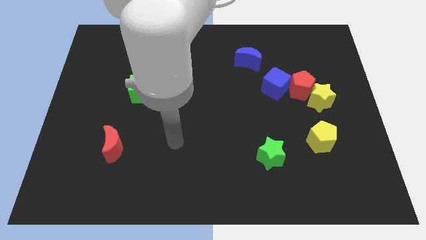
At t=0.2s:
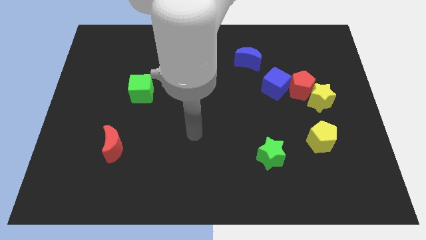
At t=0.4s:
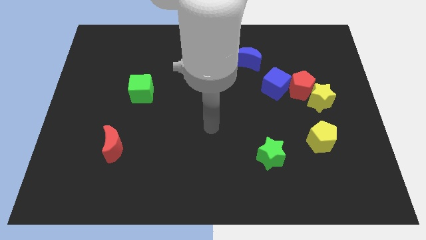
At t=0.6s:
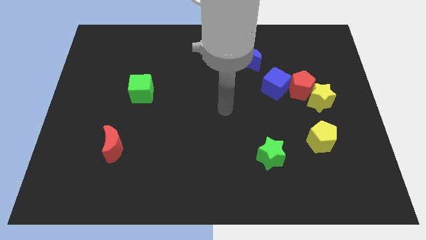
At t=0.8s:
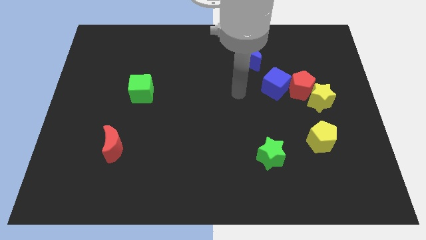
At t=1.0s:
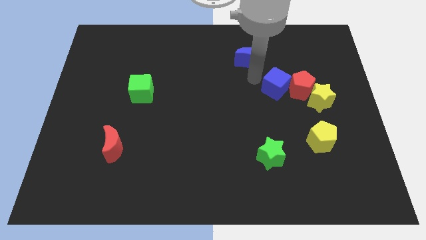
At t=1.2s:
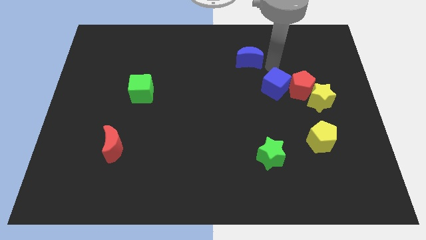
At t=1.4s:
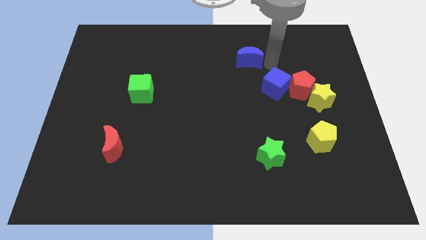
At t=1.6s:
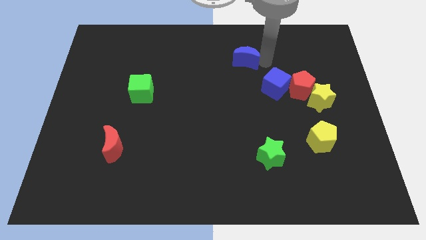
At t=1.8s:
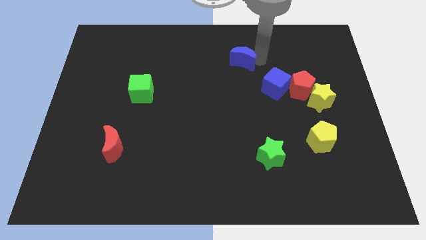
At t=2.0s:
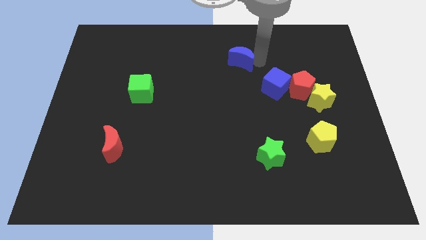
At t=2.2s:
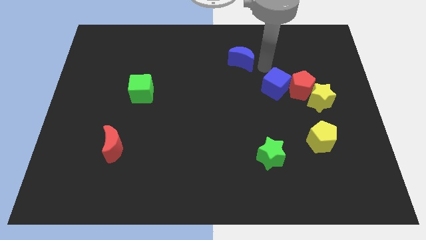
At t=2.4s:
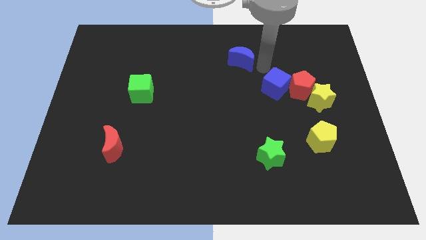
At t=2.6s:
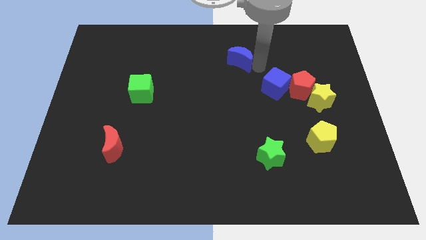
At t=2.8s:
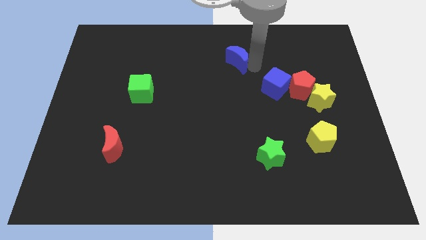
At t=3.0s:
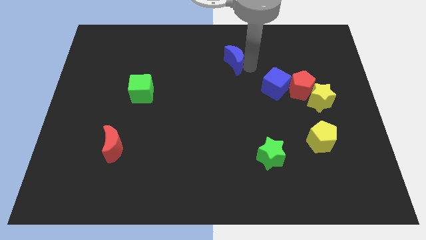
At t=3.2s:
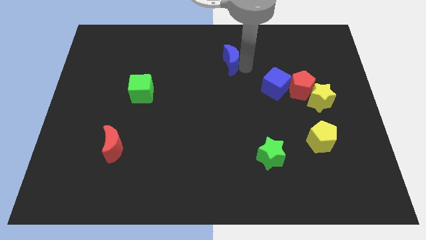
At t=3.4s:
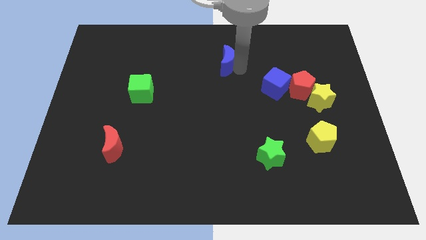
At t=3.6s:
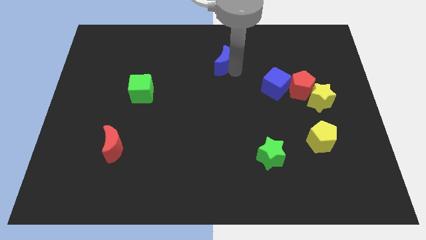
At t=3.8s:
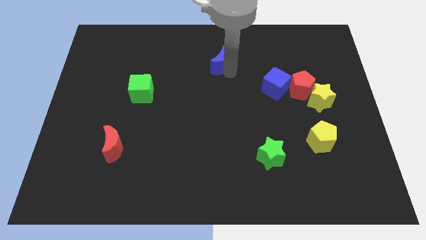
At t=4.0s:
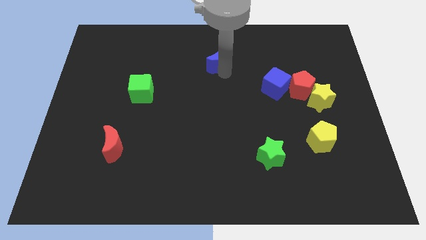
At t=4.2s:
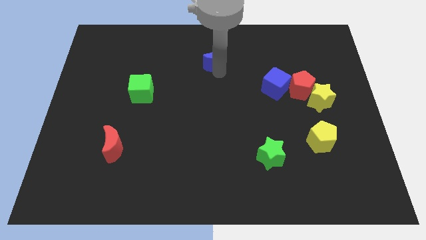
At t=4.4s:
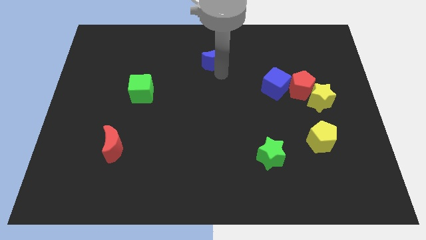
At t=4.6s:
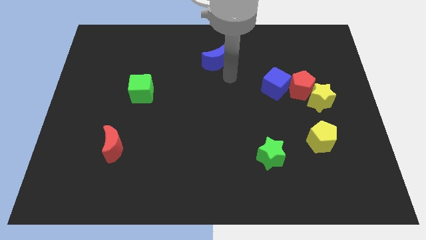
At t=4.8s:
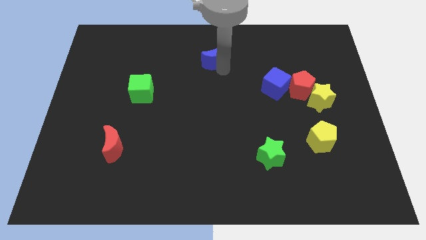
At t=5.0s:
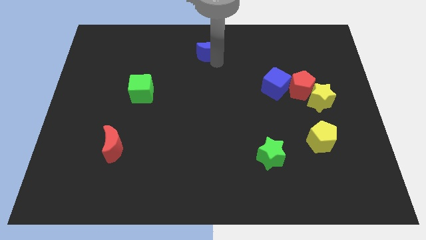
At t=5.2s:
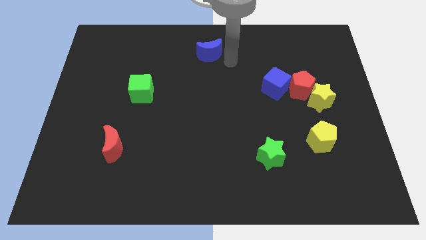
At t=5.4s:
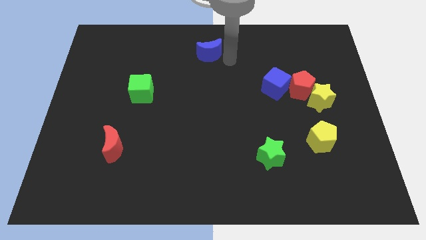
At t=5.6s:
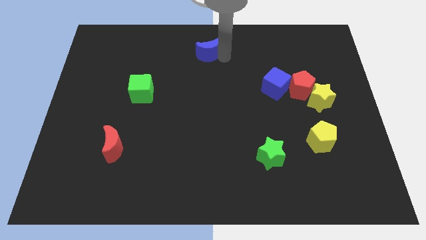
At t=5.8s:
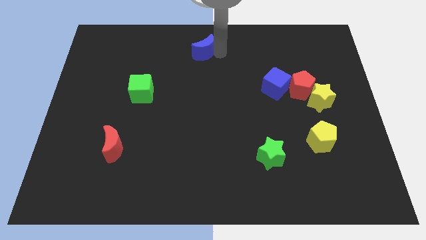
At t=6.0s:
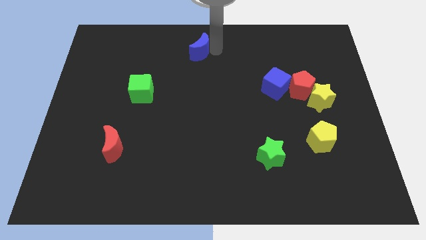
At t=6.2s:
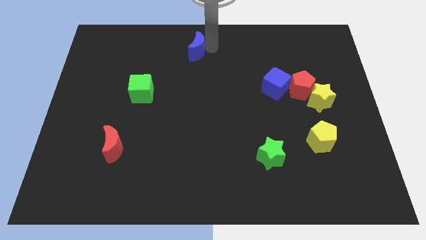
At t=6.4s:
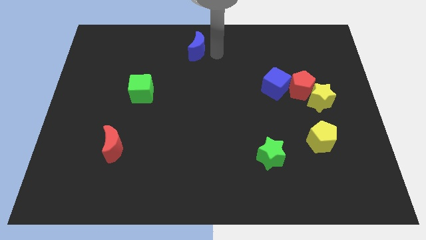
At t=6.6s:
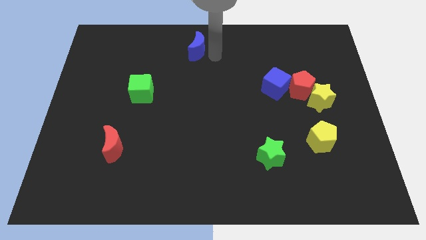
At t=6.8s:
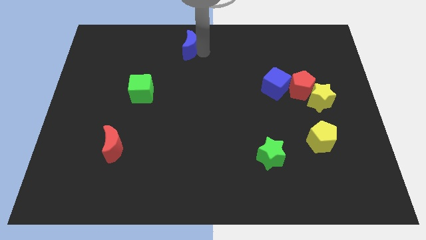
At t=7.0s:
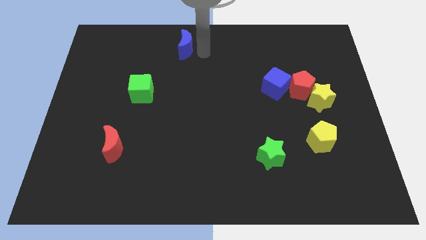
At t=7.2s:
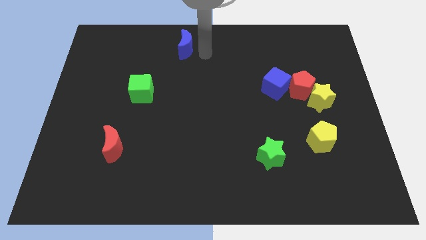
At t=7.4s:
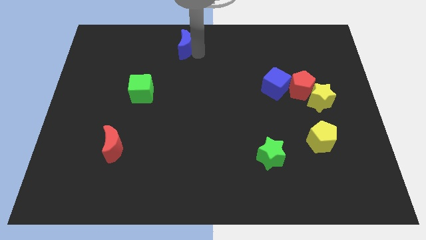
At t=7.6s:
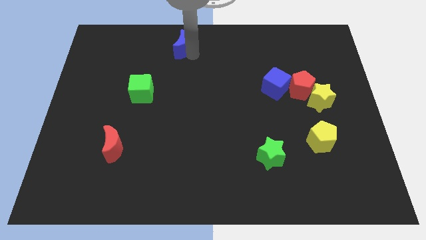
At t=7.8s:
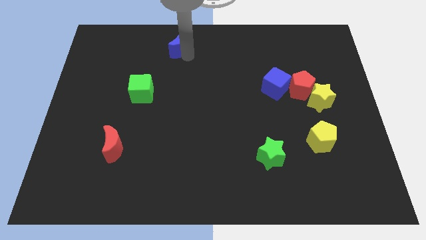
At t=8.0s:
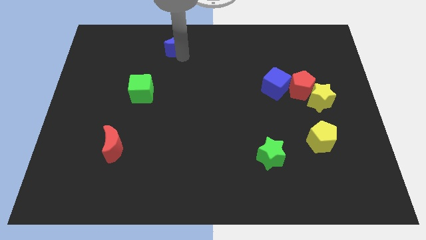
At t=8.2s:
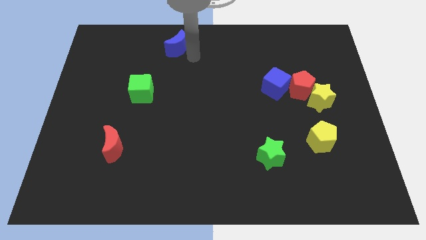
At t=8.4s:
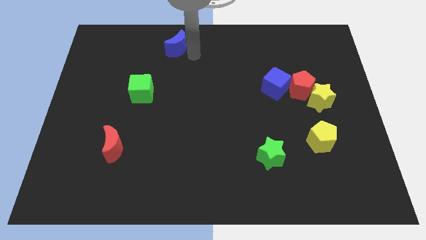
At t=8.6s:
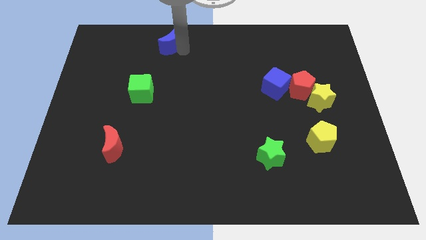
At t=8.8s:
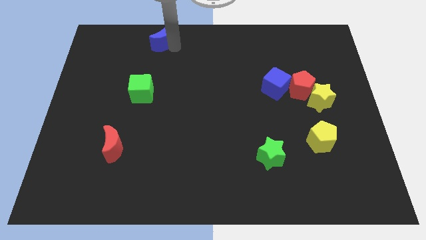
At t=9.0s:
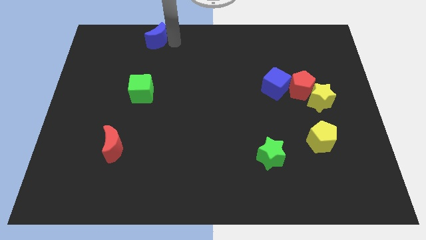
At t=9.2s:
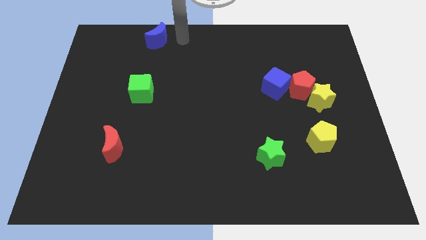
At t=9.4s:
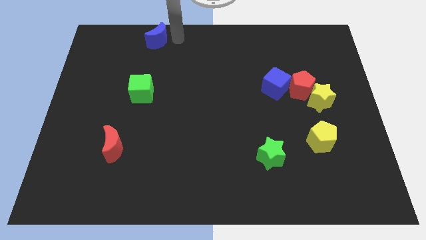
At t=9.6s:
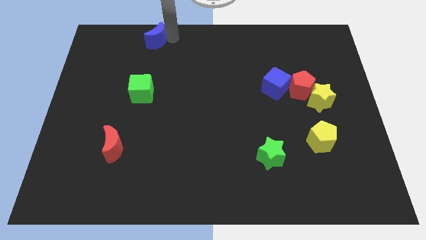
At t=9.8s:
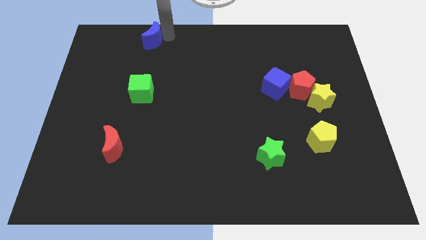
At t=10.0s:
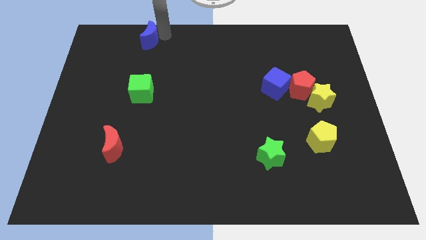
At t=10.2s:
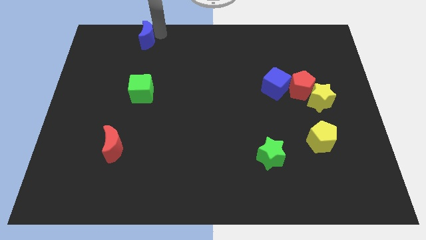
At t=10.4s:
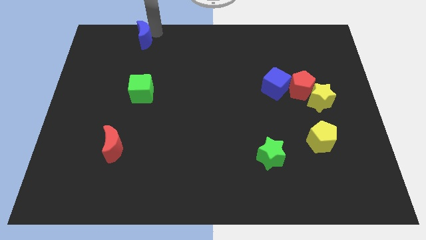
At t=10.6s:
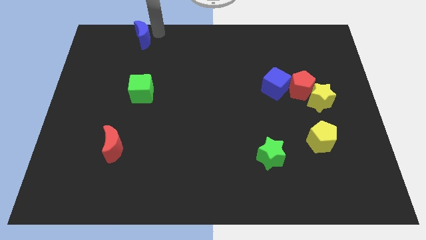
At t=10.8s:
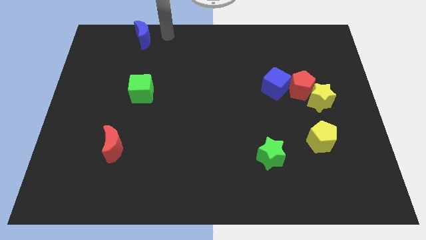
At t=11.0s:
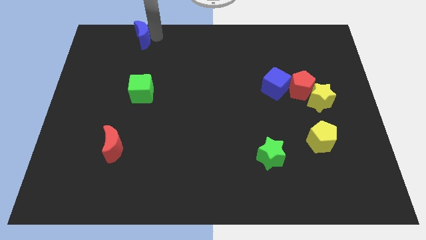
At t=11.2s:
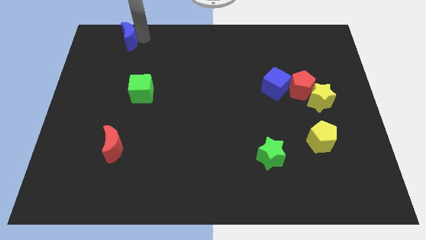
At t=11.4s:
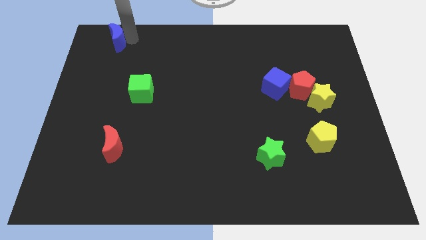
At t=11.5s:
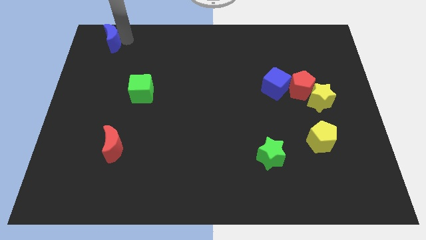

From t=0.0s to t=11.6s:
slide the blue moon to the top left of the board
